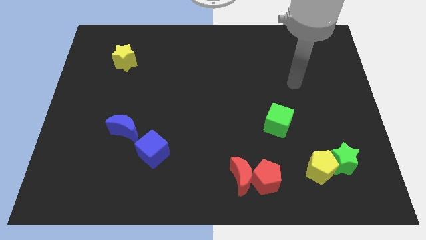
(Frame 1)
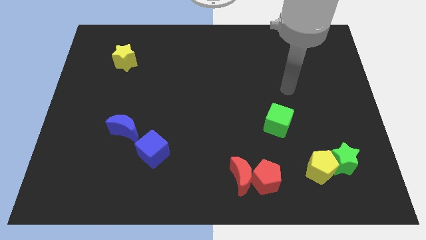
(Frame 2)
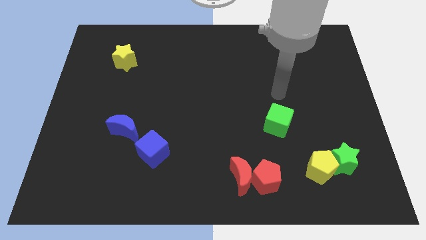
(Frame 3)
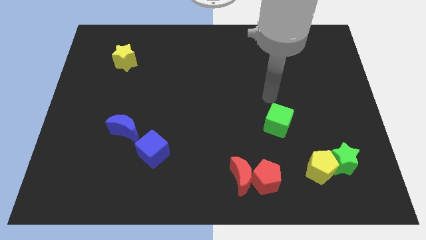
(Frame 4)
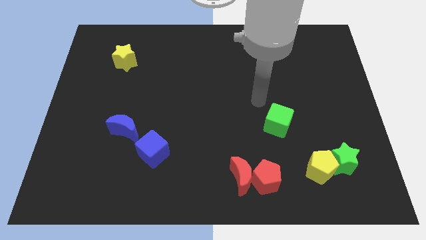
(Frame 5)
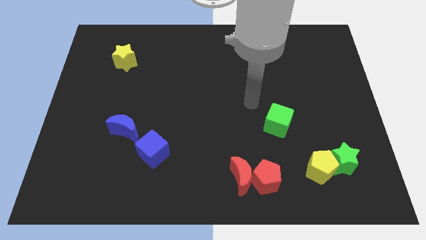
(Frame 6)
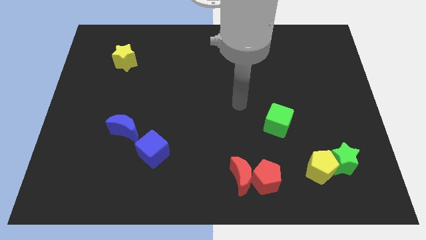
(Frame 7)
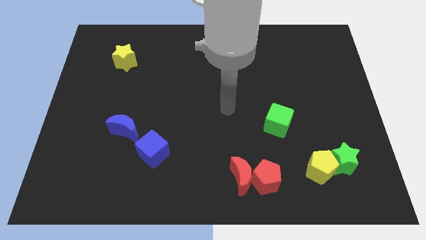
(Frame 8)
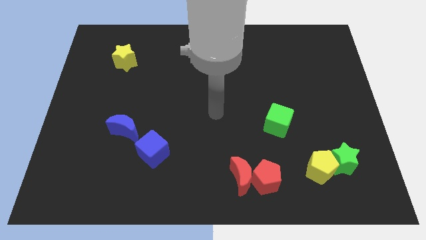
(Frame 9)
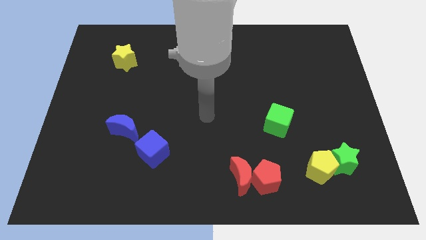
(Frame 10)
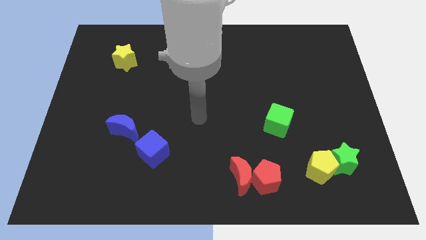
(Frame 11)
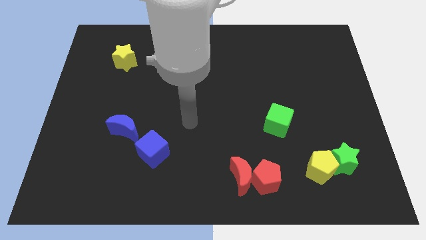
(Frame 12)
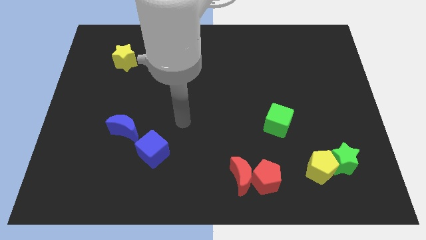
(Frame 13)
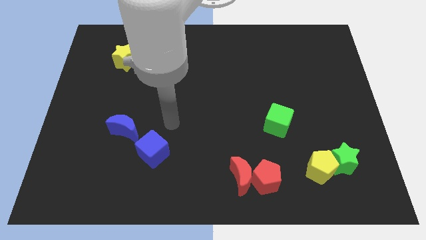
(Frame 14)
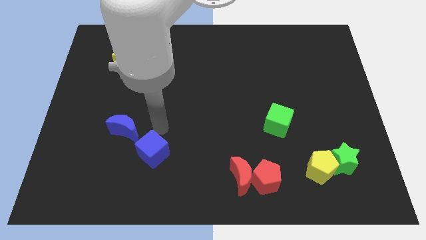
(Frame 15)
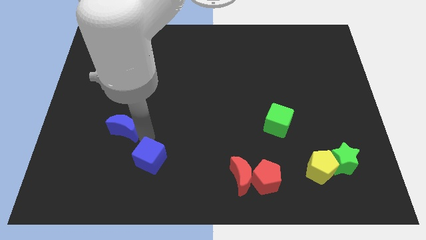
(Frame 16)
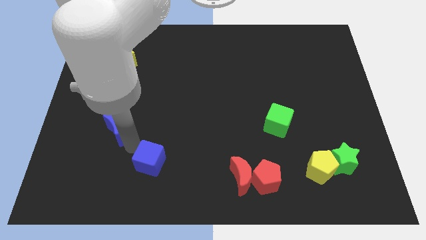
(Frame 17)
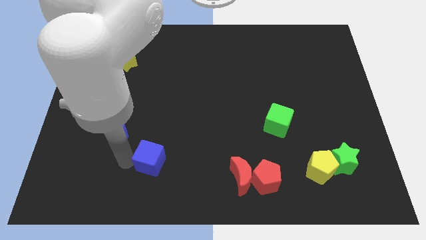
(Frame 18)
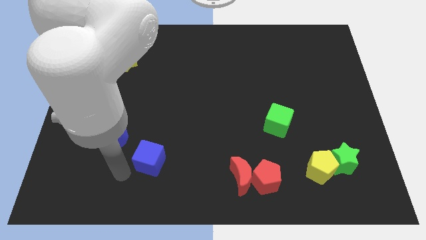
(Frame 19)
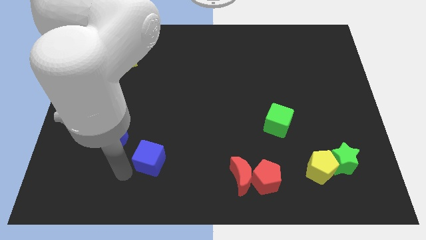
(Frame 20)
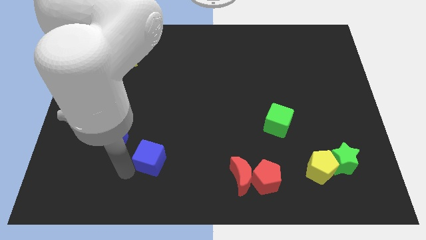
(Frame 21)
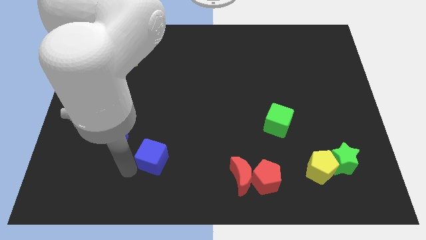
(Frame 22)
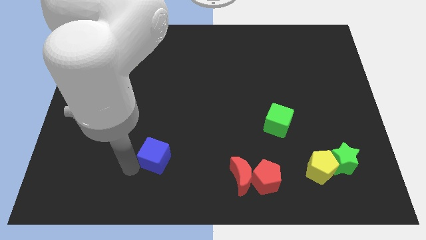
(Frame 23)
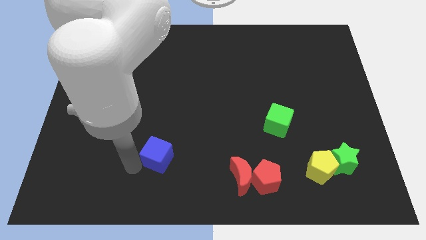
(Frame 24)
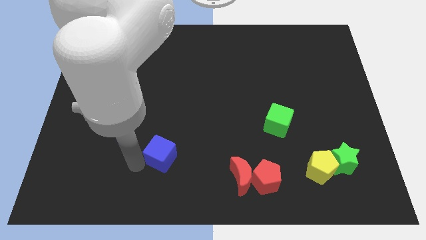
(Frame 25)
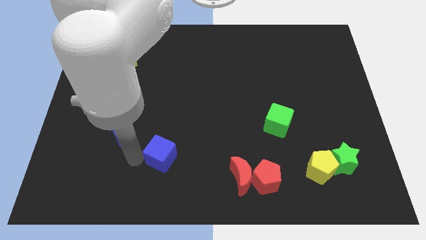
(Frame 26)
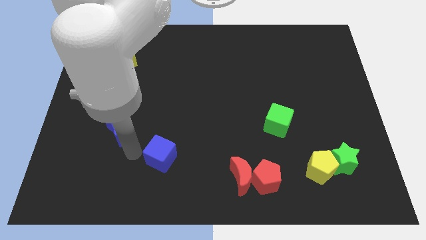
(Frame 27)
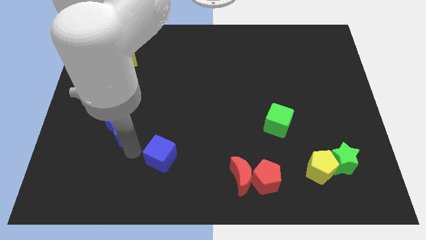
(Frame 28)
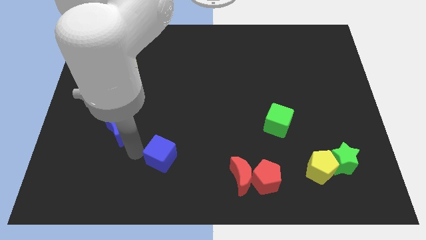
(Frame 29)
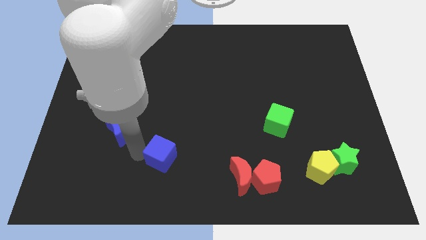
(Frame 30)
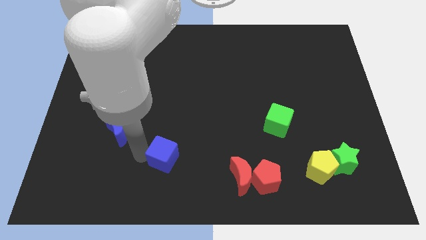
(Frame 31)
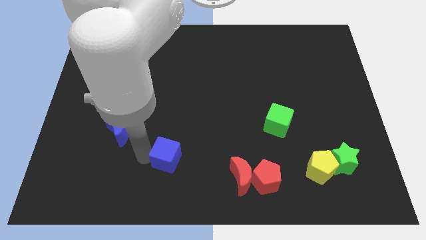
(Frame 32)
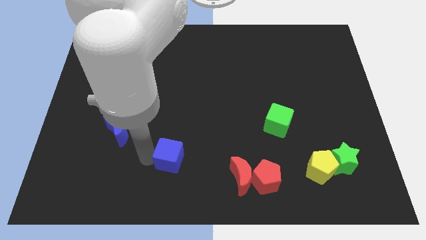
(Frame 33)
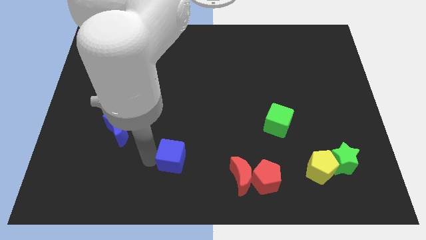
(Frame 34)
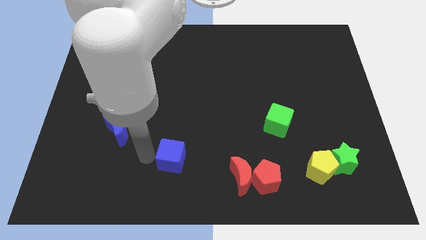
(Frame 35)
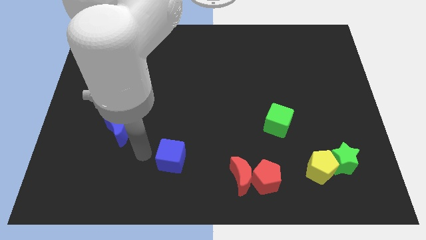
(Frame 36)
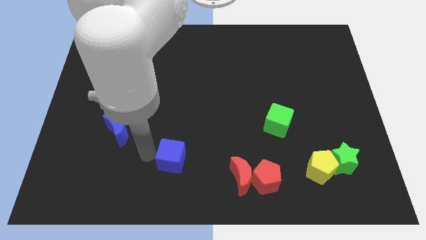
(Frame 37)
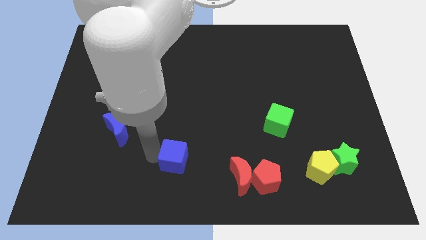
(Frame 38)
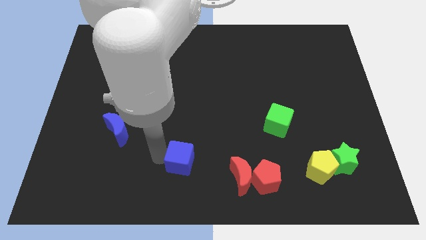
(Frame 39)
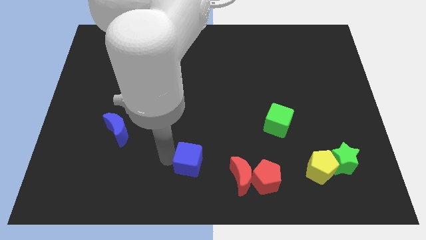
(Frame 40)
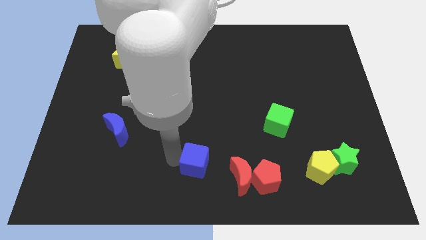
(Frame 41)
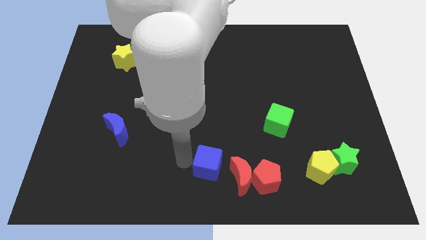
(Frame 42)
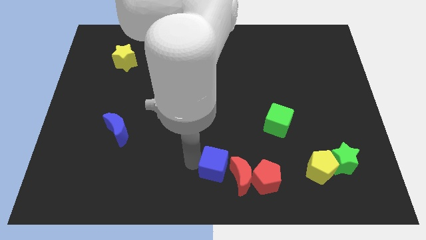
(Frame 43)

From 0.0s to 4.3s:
push the blue cube towards the red moon

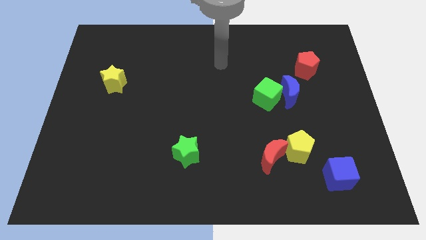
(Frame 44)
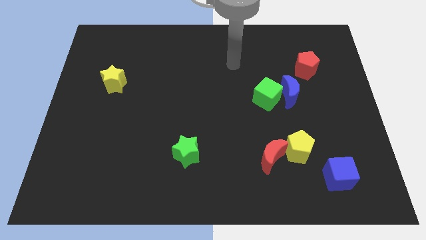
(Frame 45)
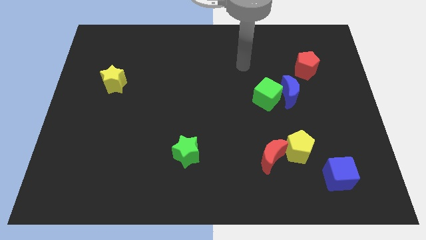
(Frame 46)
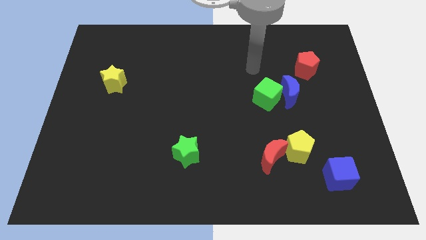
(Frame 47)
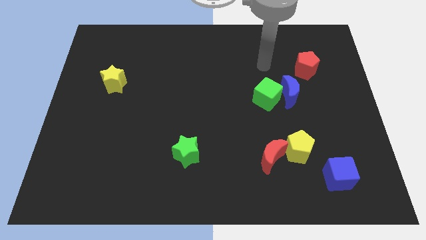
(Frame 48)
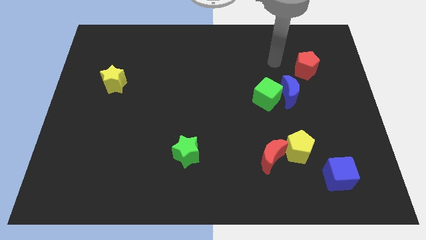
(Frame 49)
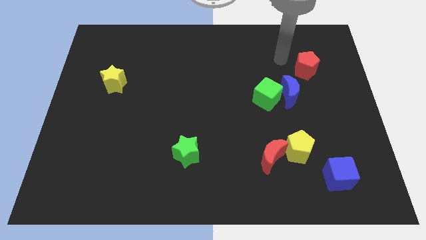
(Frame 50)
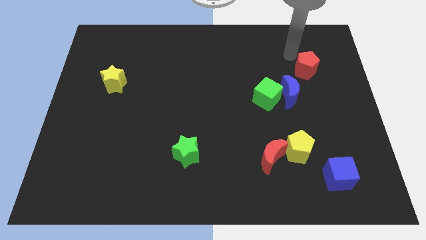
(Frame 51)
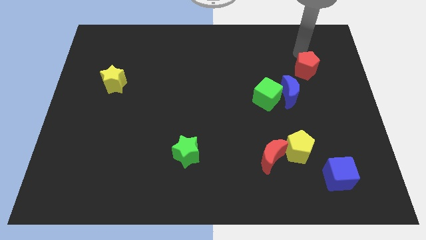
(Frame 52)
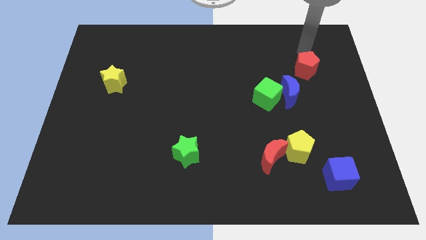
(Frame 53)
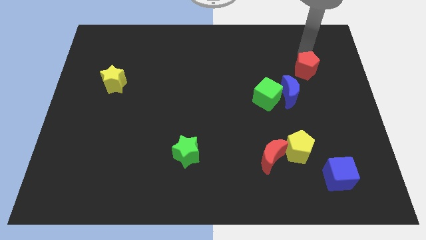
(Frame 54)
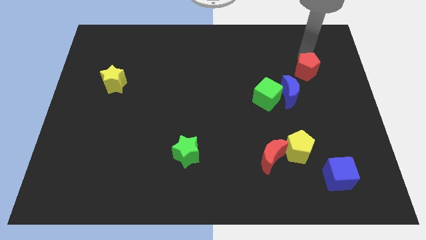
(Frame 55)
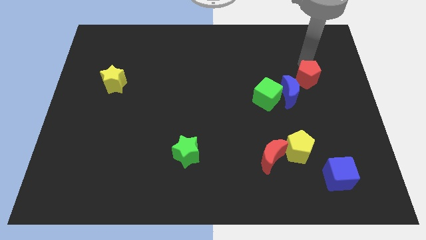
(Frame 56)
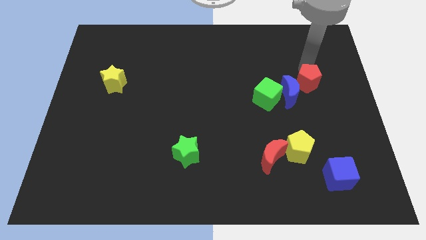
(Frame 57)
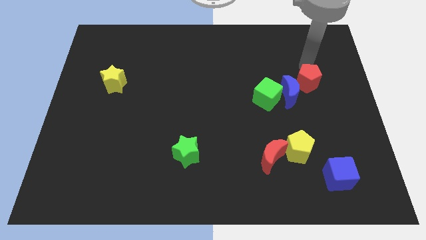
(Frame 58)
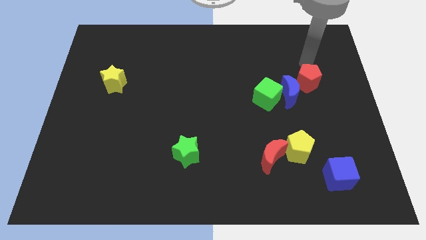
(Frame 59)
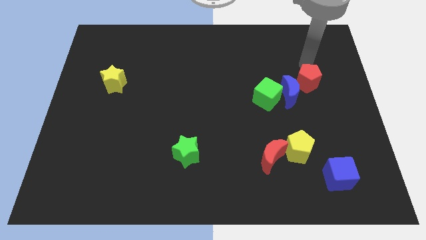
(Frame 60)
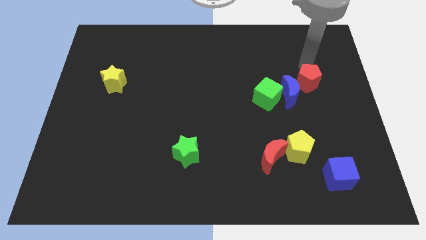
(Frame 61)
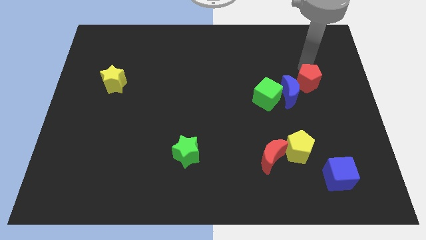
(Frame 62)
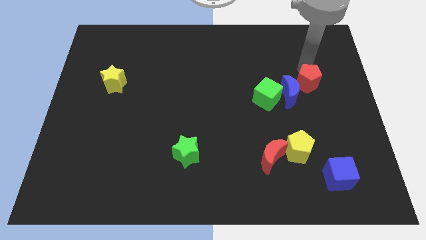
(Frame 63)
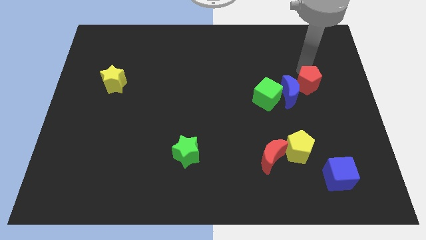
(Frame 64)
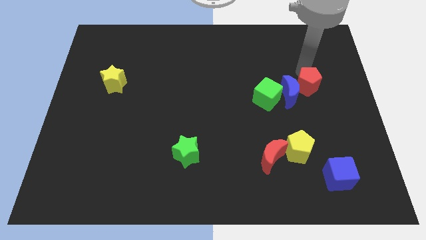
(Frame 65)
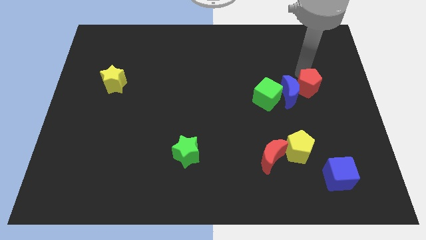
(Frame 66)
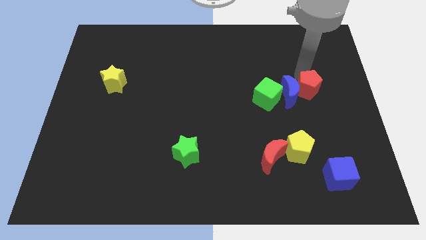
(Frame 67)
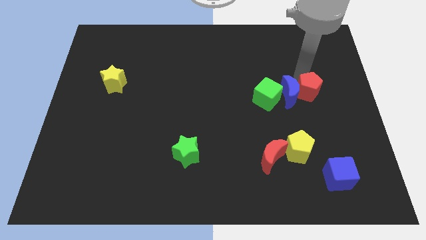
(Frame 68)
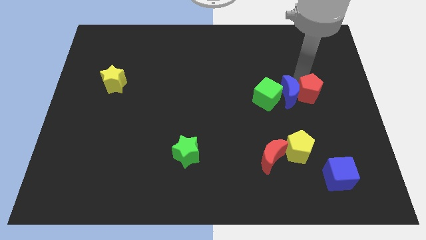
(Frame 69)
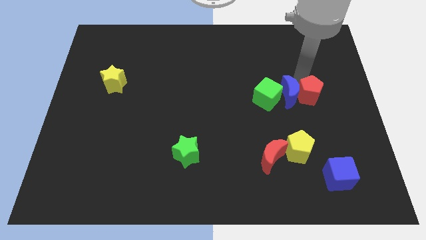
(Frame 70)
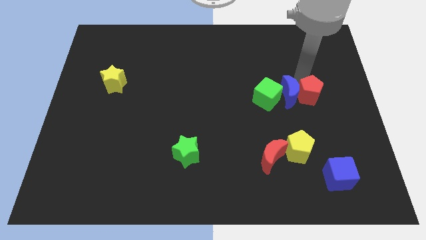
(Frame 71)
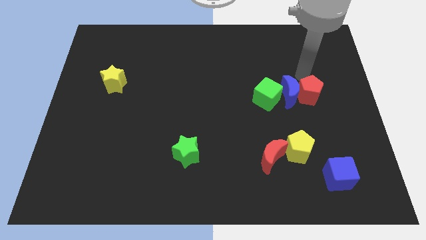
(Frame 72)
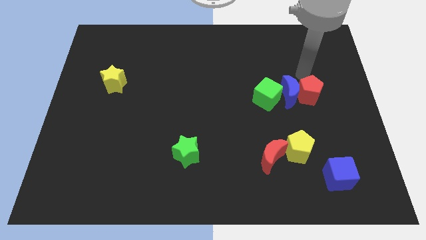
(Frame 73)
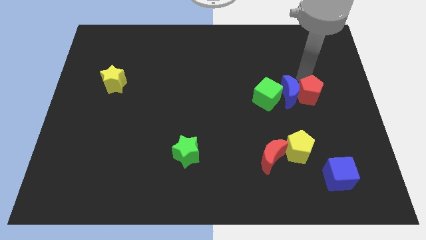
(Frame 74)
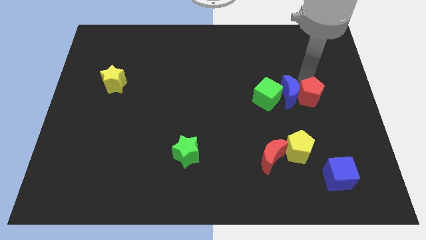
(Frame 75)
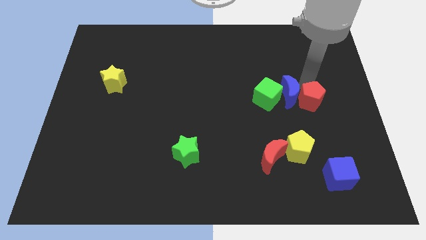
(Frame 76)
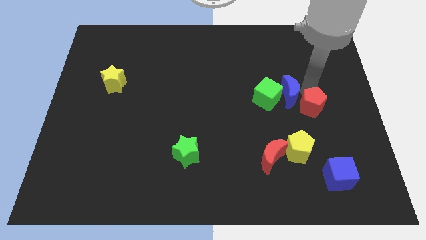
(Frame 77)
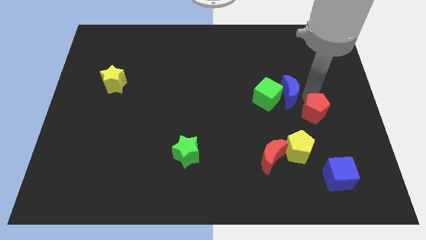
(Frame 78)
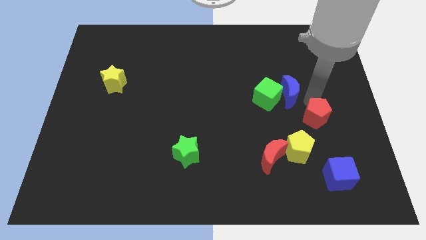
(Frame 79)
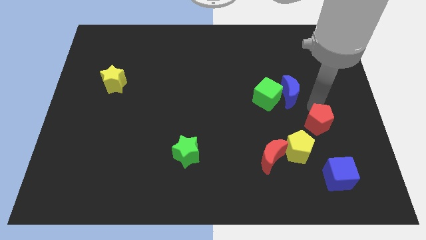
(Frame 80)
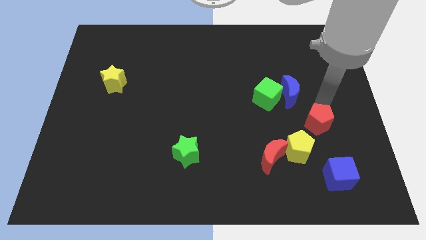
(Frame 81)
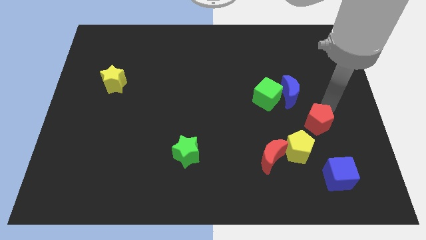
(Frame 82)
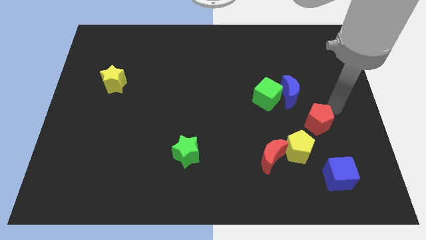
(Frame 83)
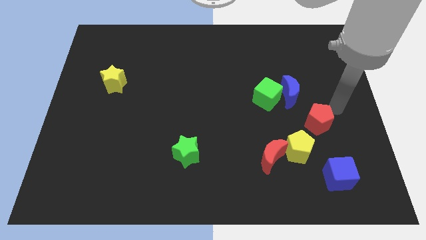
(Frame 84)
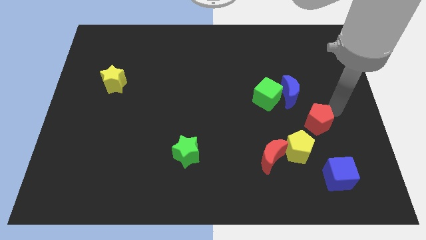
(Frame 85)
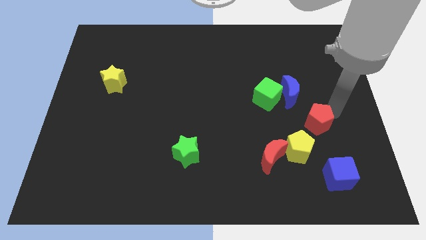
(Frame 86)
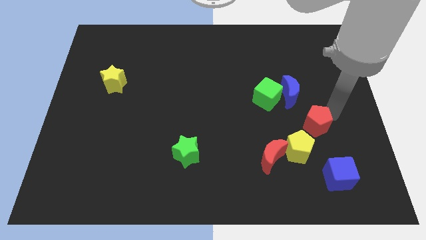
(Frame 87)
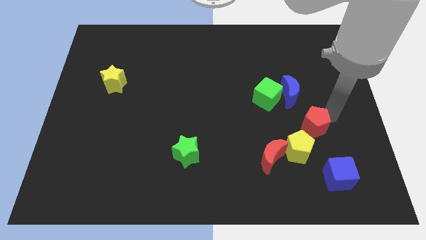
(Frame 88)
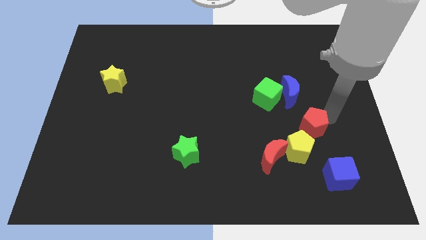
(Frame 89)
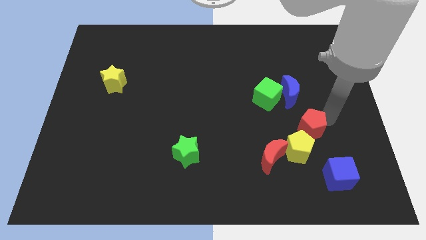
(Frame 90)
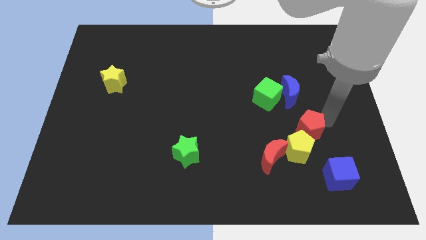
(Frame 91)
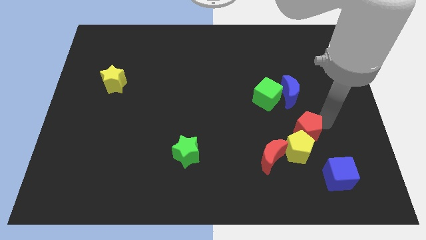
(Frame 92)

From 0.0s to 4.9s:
put the red pentagon towards the yellow pentagon
